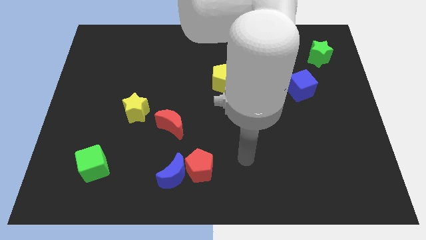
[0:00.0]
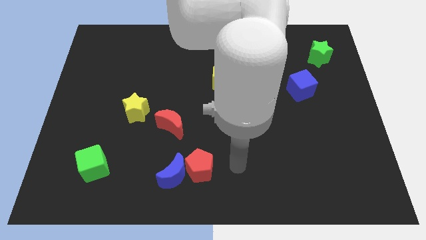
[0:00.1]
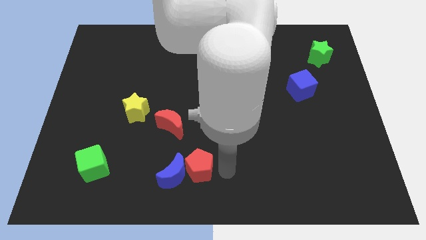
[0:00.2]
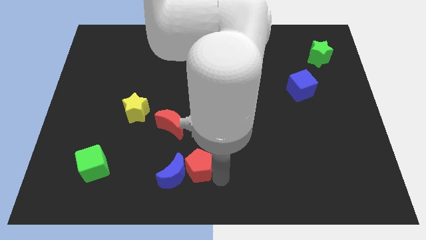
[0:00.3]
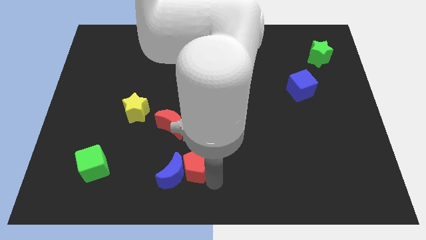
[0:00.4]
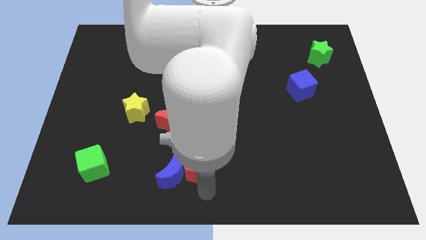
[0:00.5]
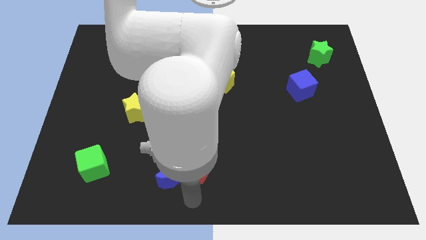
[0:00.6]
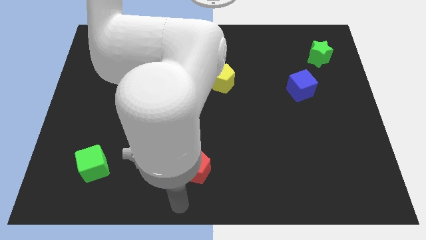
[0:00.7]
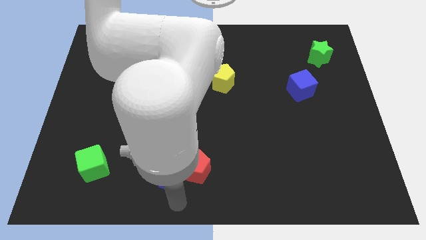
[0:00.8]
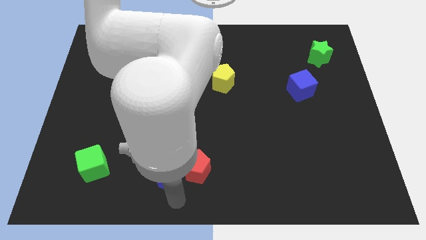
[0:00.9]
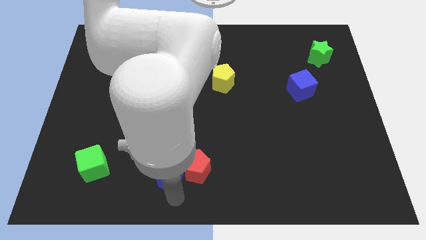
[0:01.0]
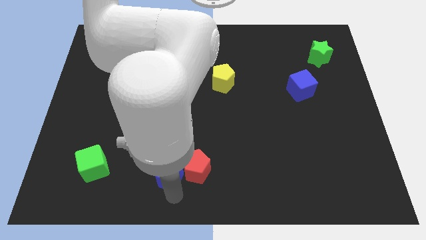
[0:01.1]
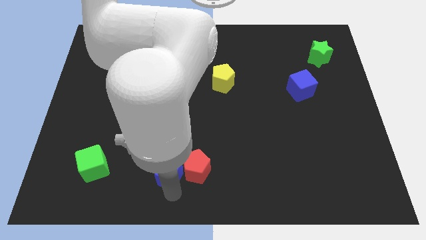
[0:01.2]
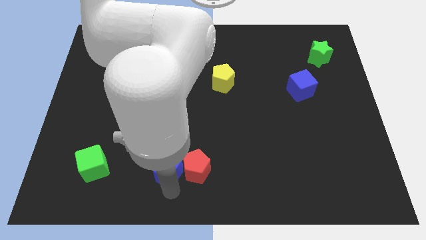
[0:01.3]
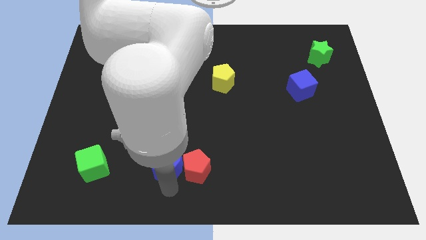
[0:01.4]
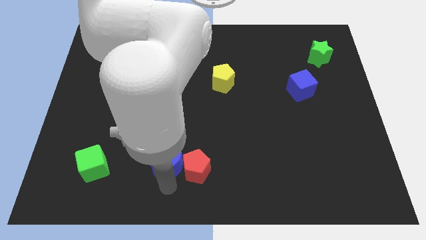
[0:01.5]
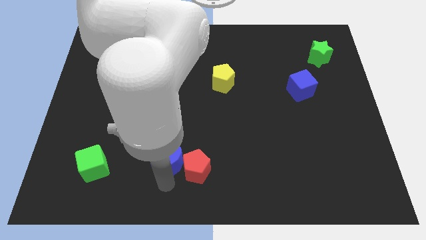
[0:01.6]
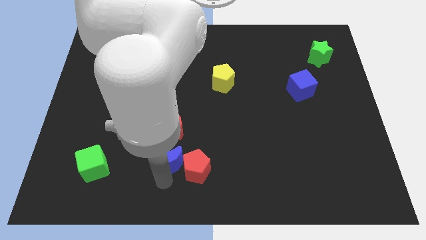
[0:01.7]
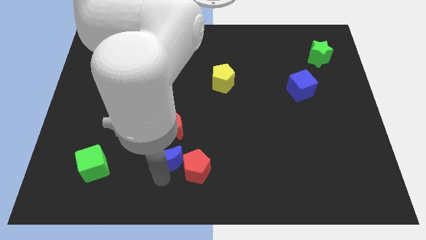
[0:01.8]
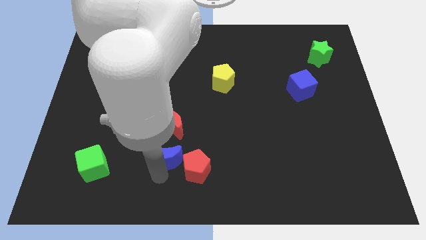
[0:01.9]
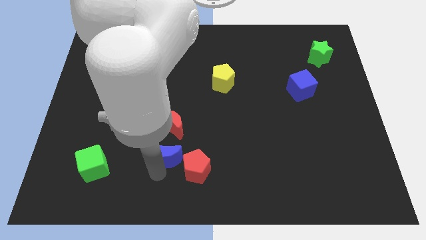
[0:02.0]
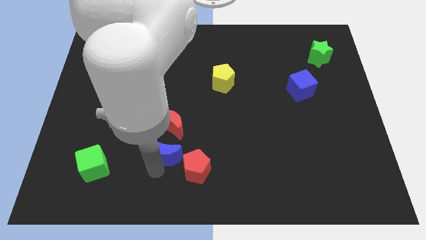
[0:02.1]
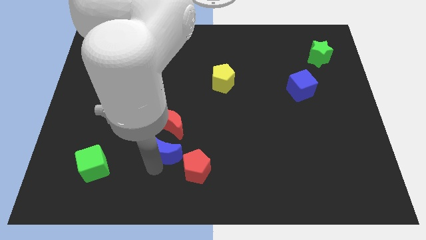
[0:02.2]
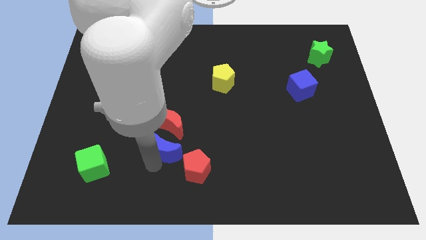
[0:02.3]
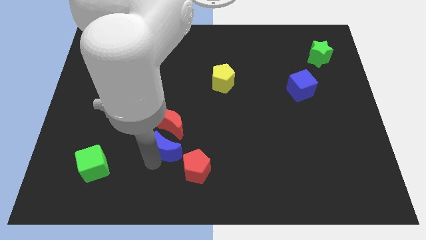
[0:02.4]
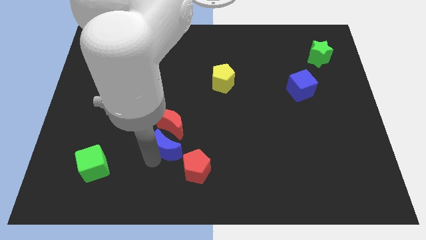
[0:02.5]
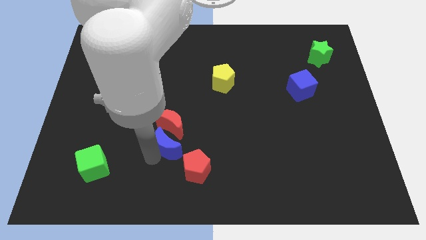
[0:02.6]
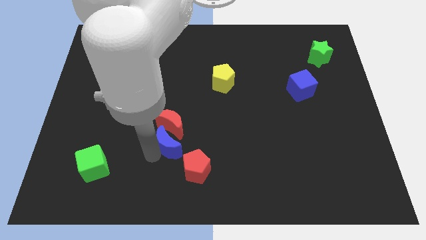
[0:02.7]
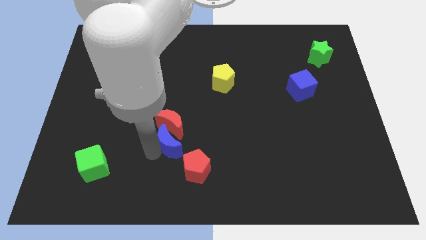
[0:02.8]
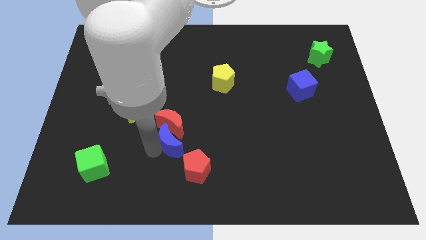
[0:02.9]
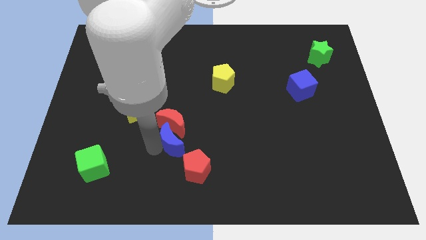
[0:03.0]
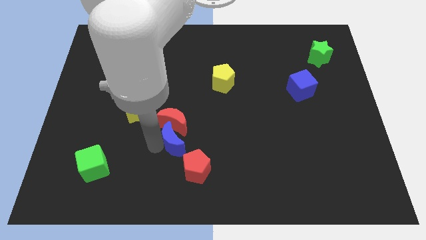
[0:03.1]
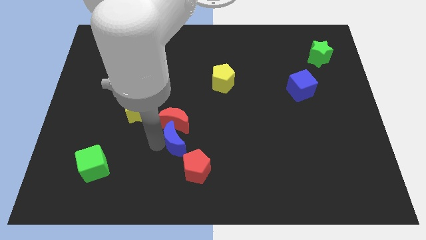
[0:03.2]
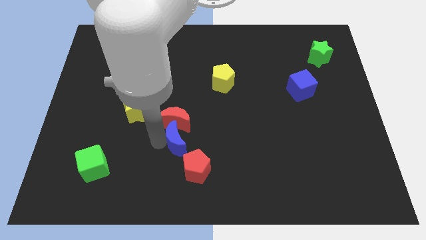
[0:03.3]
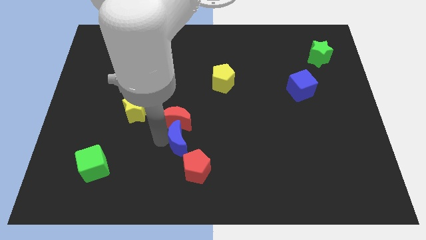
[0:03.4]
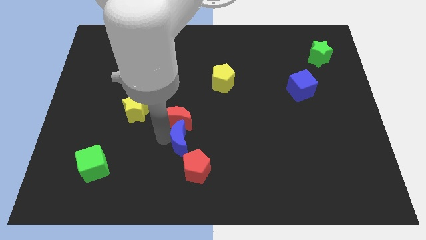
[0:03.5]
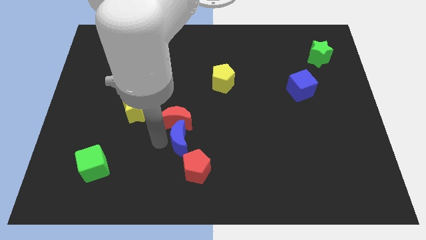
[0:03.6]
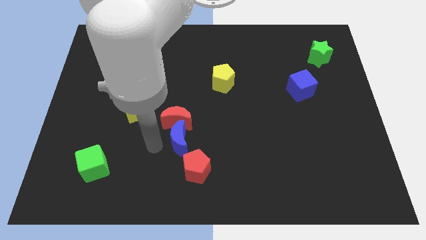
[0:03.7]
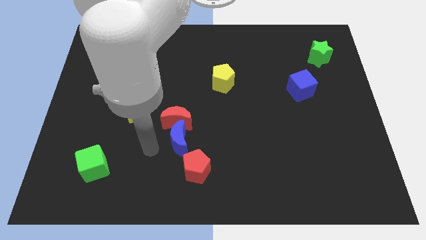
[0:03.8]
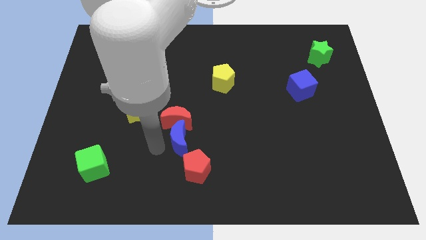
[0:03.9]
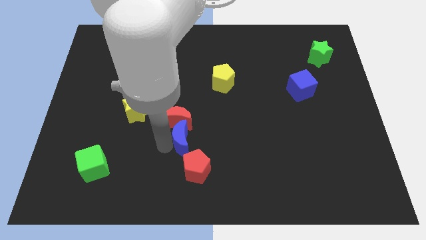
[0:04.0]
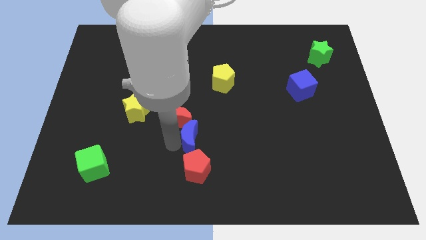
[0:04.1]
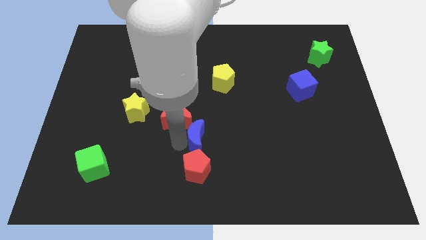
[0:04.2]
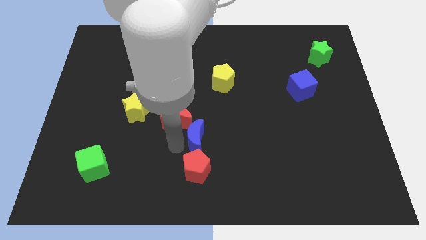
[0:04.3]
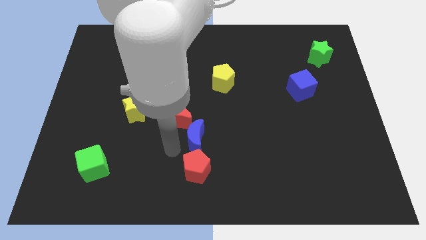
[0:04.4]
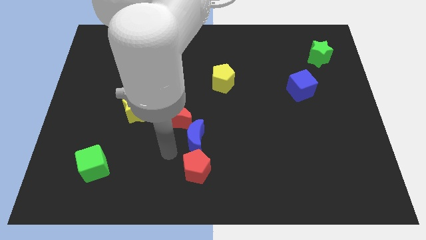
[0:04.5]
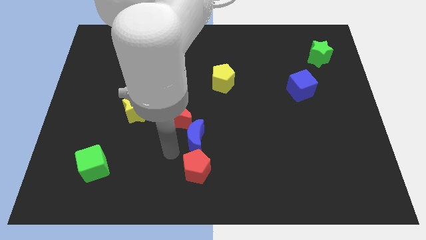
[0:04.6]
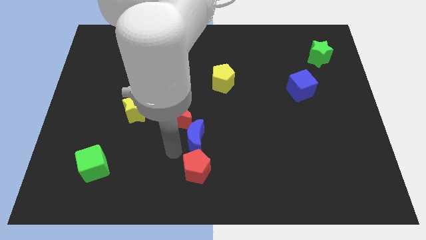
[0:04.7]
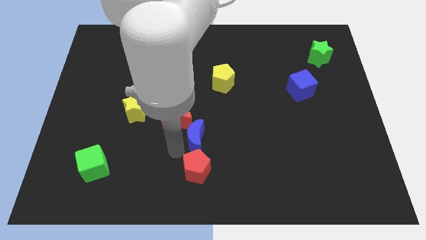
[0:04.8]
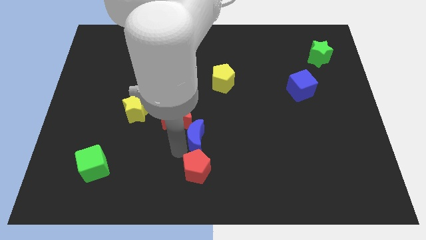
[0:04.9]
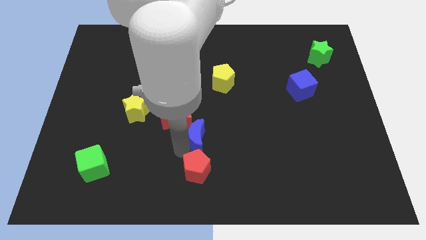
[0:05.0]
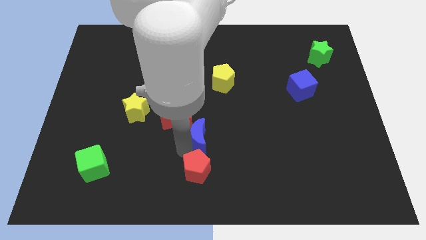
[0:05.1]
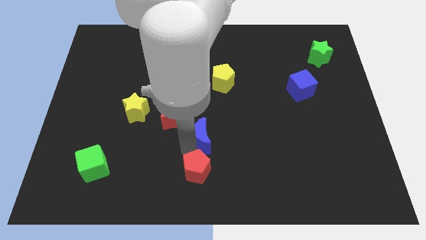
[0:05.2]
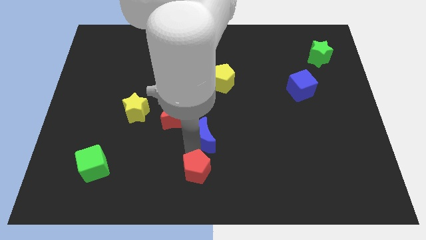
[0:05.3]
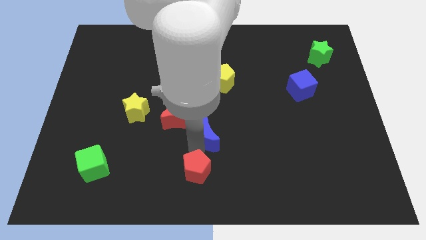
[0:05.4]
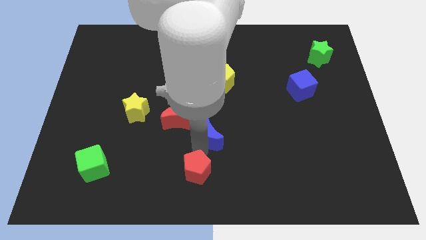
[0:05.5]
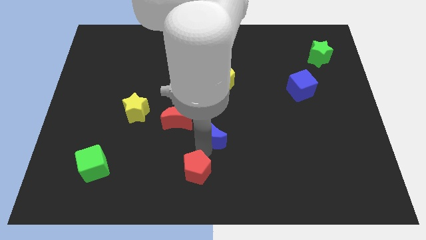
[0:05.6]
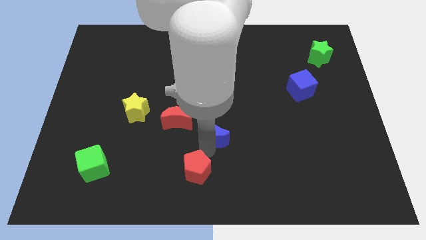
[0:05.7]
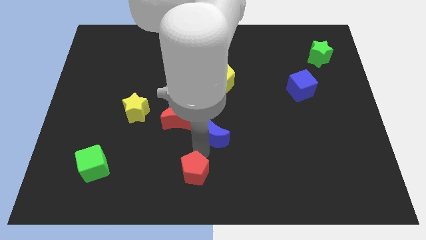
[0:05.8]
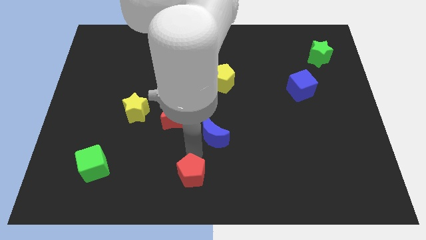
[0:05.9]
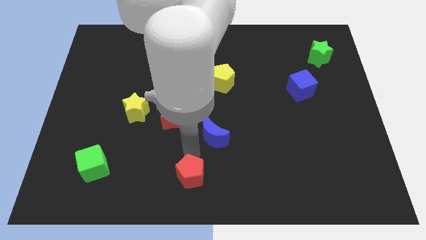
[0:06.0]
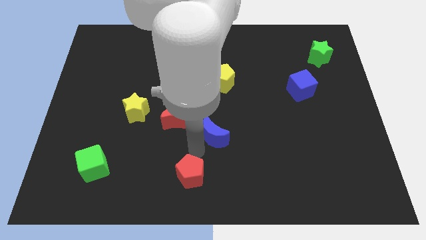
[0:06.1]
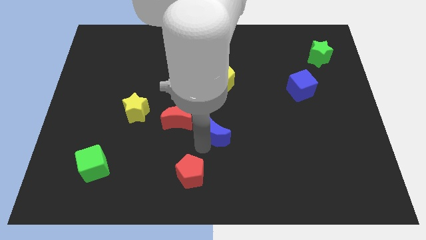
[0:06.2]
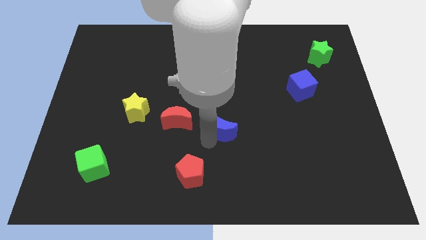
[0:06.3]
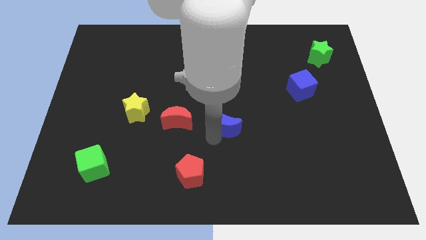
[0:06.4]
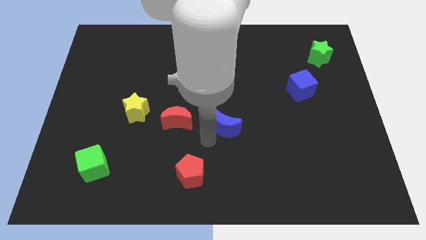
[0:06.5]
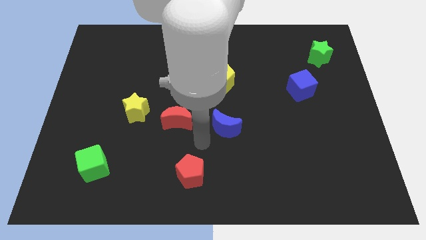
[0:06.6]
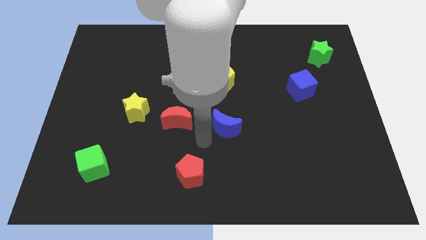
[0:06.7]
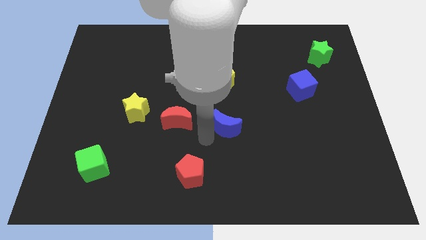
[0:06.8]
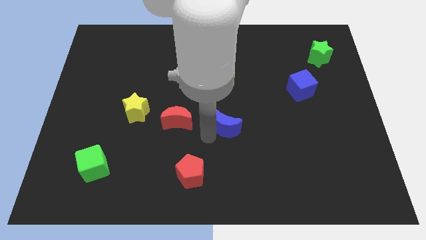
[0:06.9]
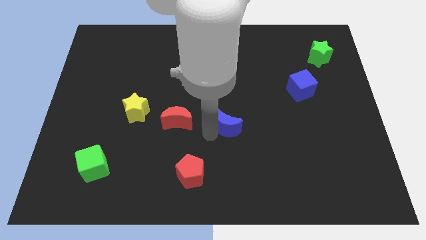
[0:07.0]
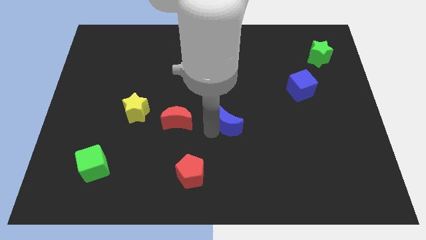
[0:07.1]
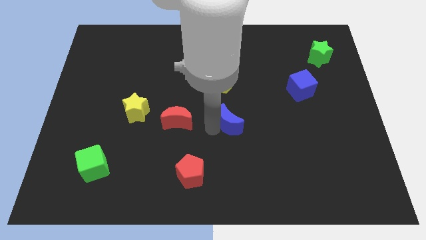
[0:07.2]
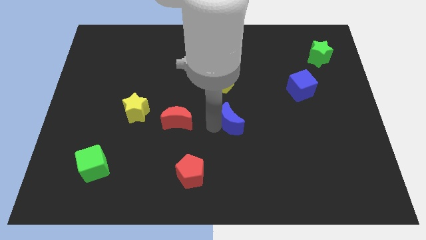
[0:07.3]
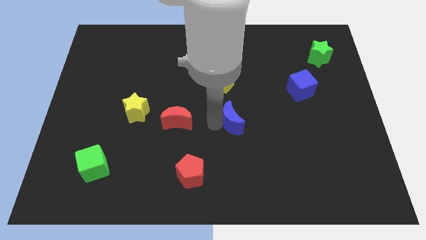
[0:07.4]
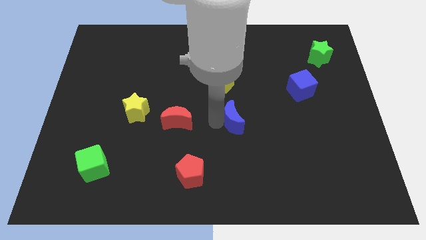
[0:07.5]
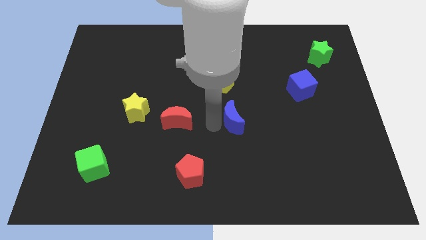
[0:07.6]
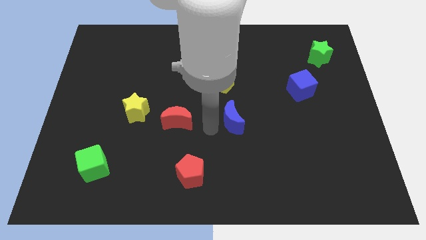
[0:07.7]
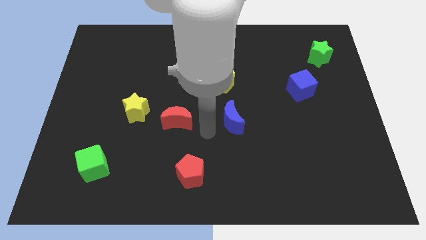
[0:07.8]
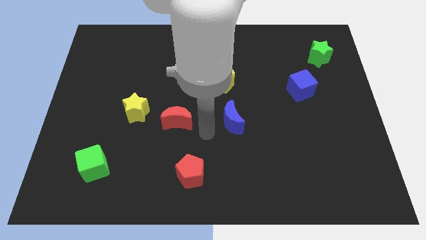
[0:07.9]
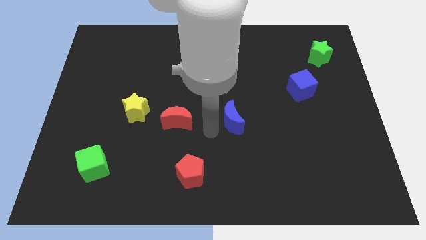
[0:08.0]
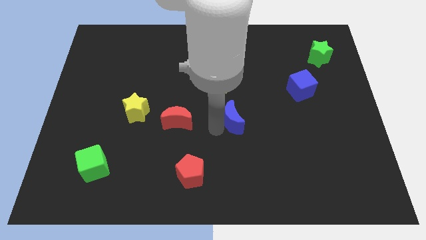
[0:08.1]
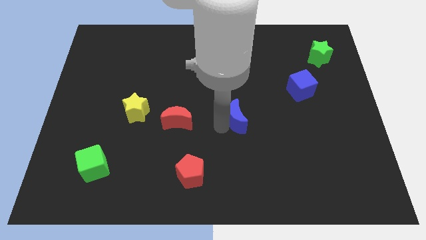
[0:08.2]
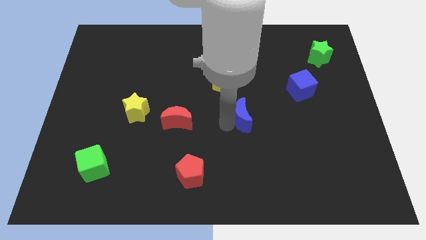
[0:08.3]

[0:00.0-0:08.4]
push the blue moon upwards and to the right diagonally
